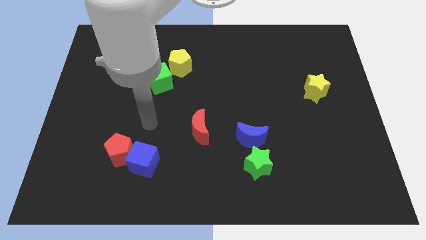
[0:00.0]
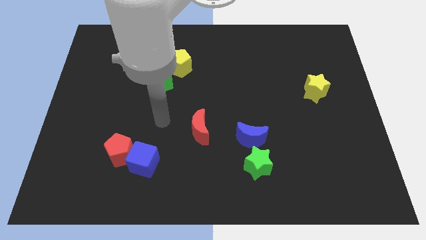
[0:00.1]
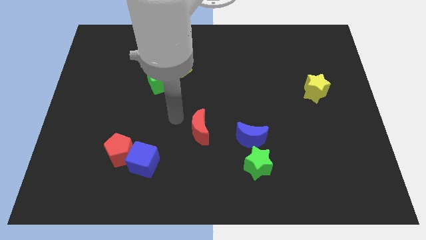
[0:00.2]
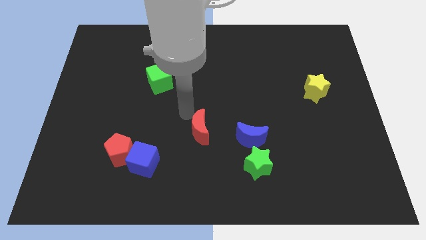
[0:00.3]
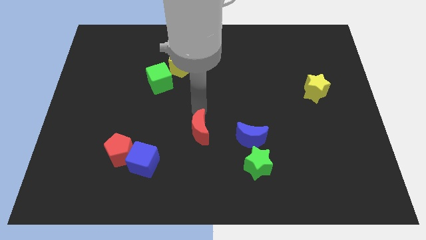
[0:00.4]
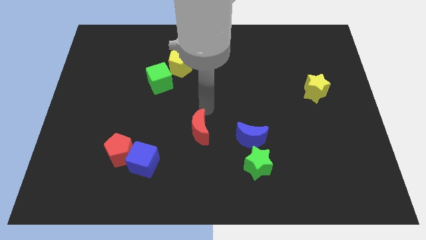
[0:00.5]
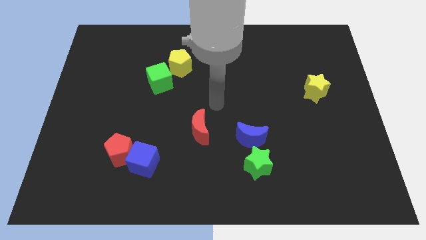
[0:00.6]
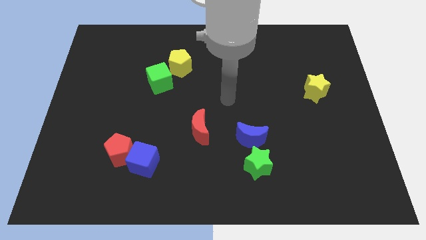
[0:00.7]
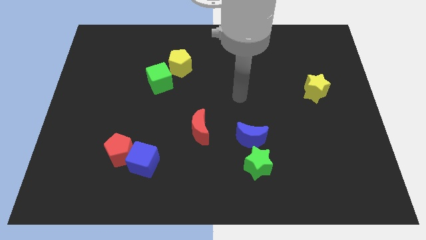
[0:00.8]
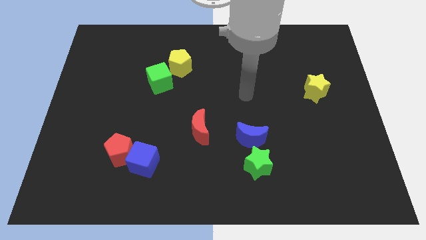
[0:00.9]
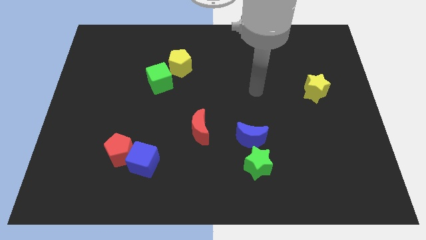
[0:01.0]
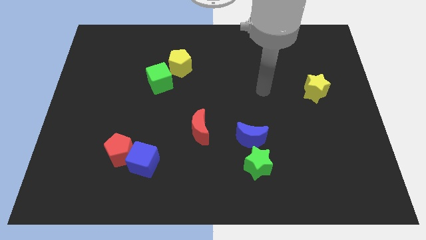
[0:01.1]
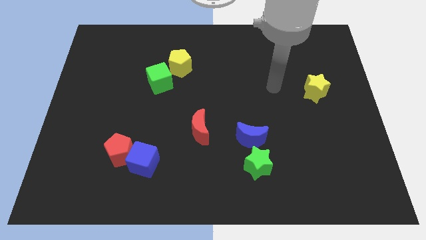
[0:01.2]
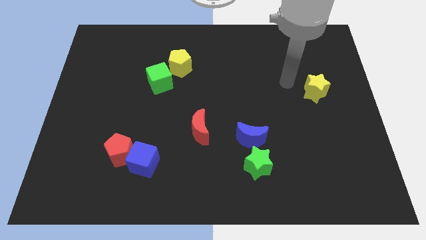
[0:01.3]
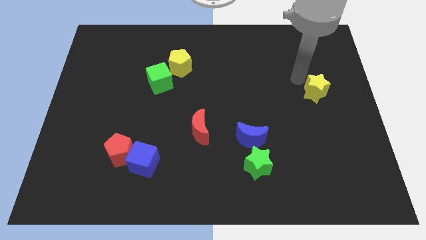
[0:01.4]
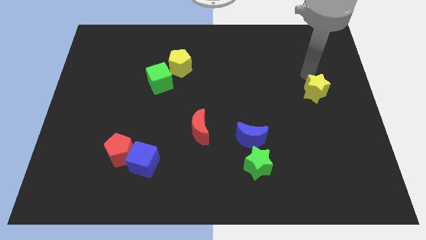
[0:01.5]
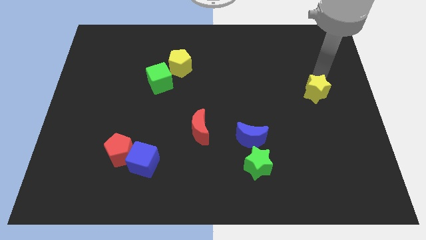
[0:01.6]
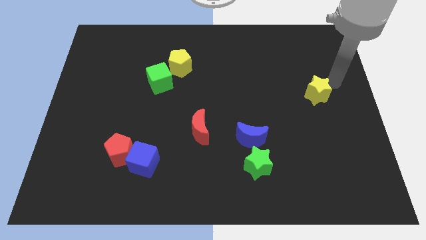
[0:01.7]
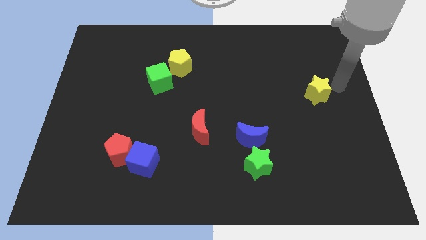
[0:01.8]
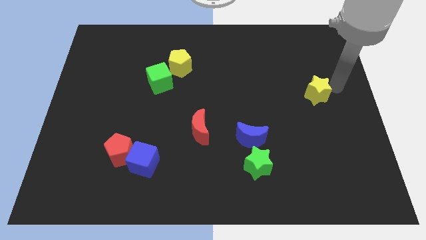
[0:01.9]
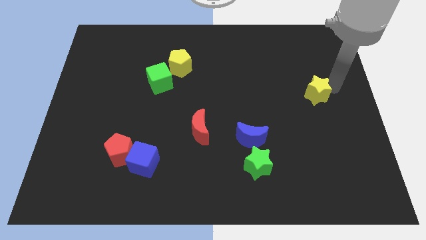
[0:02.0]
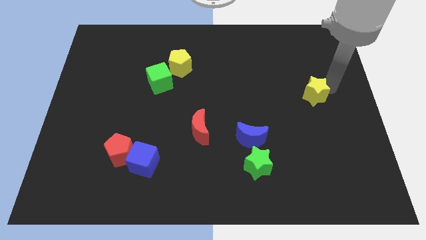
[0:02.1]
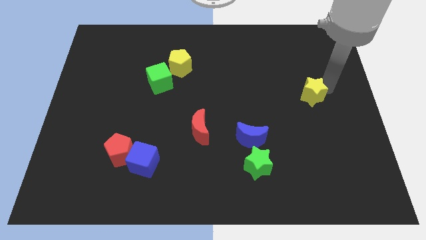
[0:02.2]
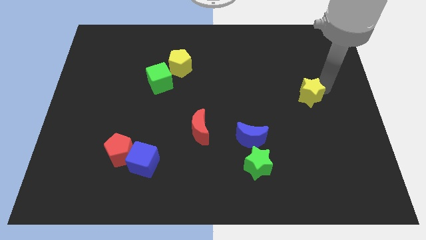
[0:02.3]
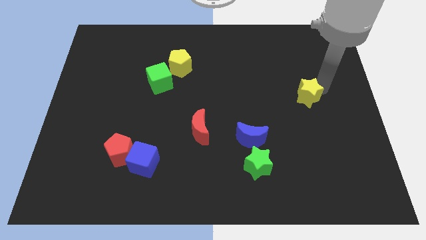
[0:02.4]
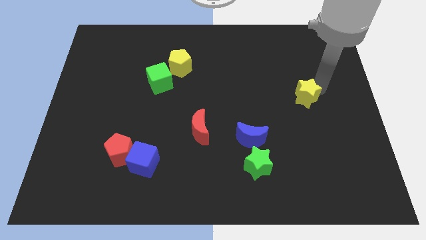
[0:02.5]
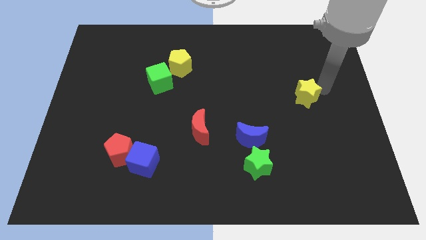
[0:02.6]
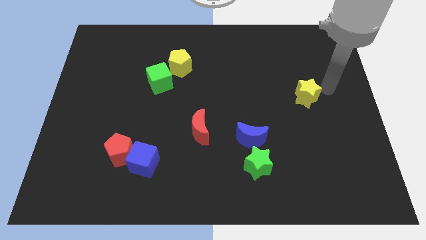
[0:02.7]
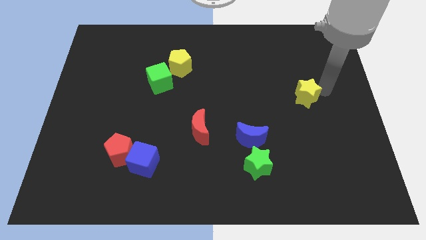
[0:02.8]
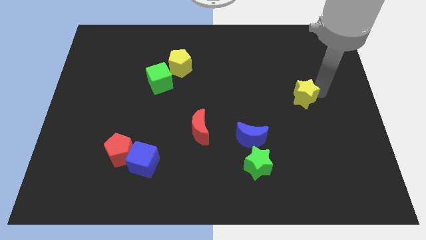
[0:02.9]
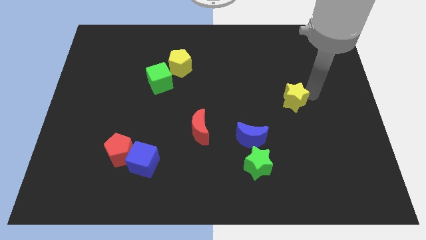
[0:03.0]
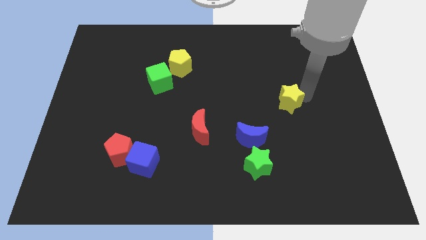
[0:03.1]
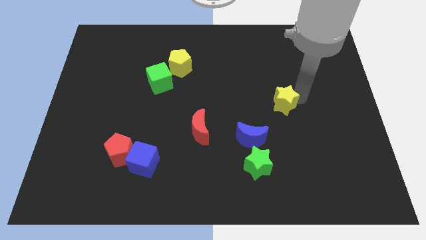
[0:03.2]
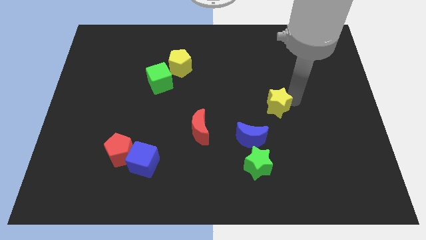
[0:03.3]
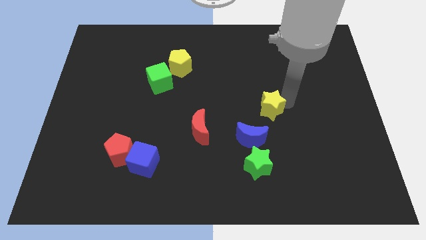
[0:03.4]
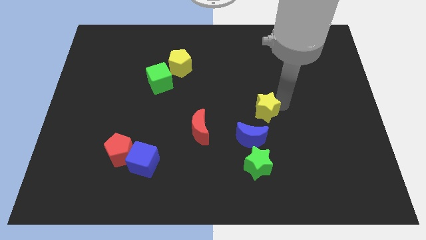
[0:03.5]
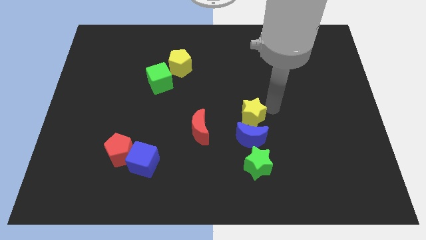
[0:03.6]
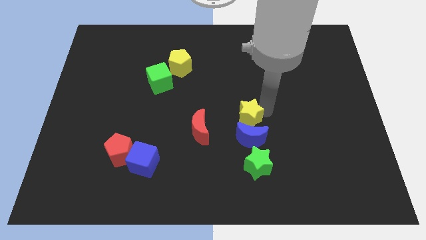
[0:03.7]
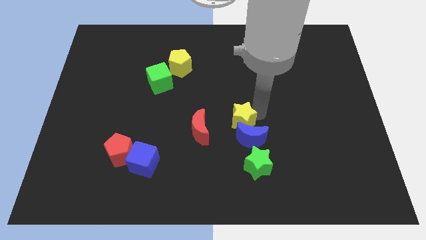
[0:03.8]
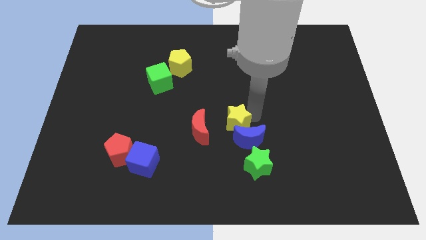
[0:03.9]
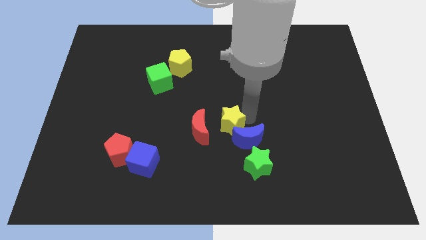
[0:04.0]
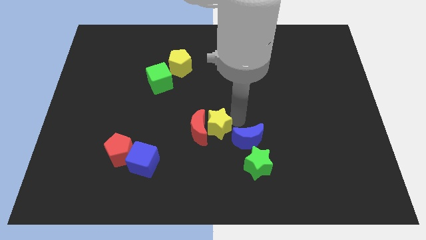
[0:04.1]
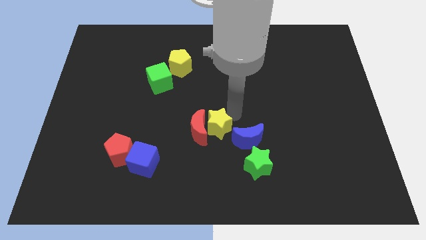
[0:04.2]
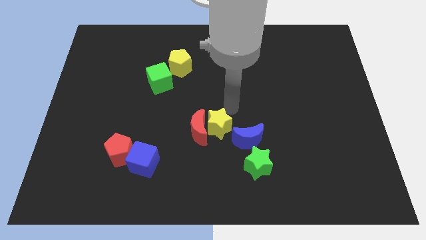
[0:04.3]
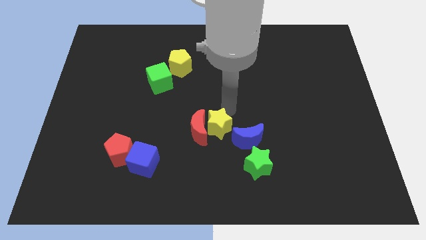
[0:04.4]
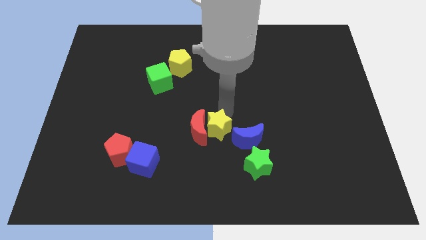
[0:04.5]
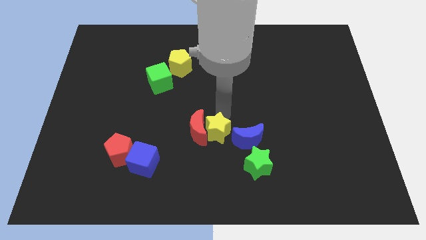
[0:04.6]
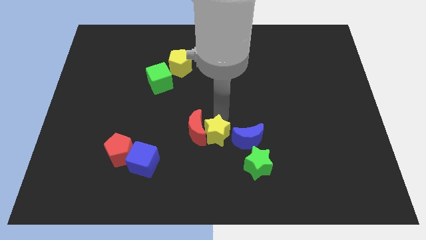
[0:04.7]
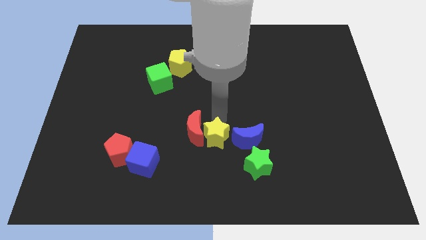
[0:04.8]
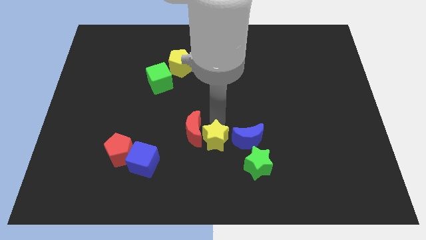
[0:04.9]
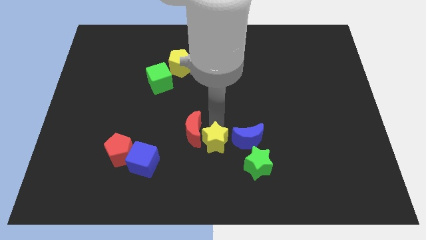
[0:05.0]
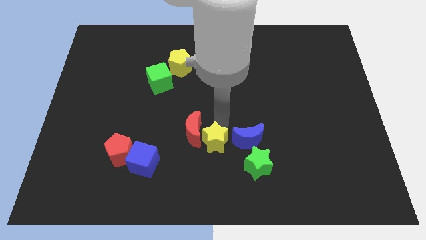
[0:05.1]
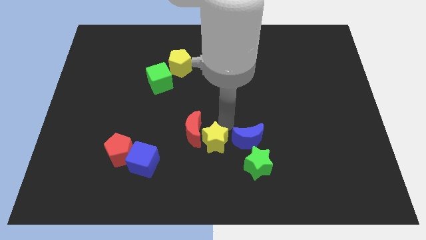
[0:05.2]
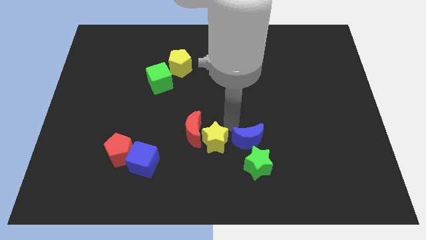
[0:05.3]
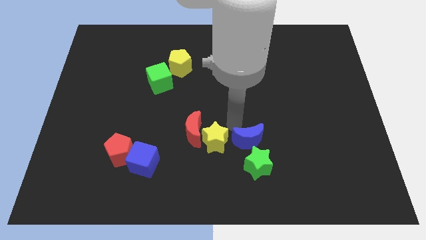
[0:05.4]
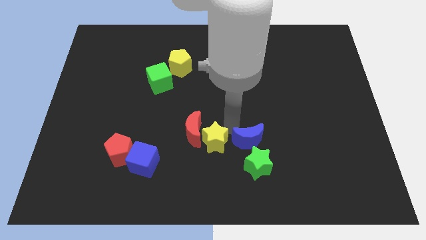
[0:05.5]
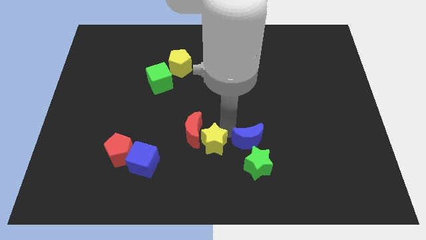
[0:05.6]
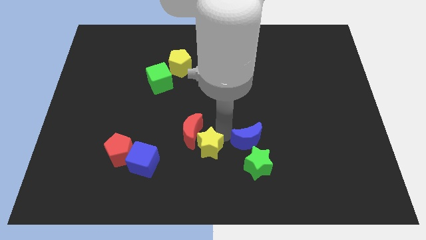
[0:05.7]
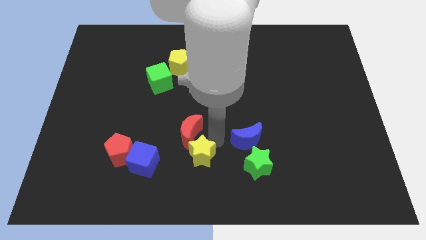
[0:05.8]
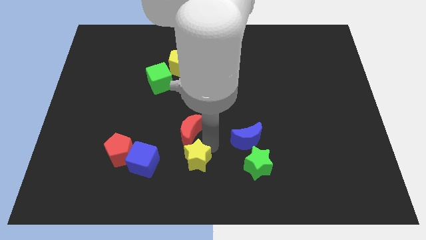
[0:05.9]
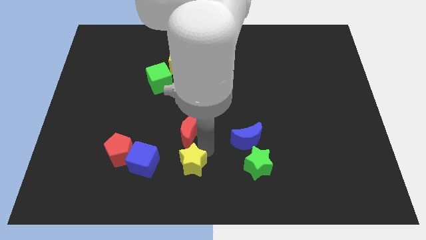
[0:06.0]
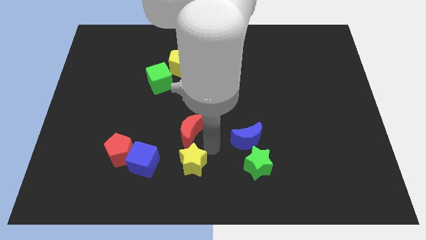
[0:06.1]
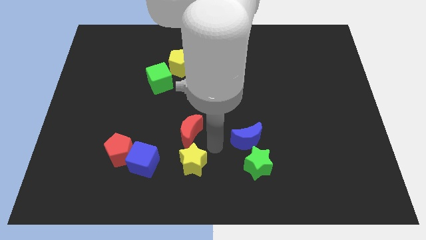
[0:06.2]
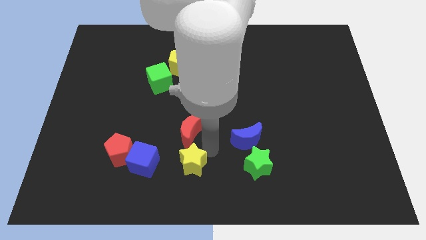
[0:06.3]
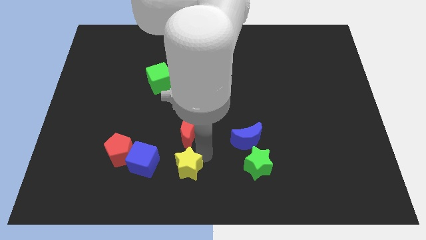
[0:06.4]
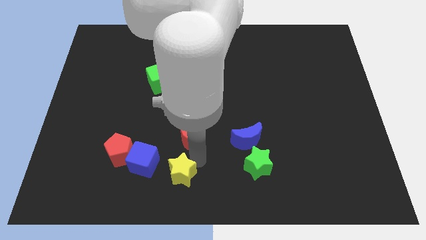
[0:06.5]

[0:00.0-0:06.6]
move the yellow star to the bottom right side of the blue cube
